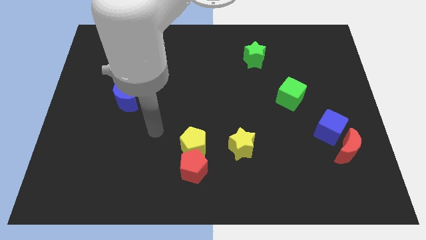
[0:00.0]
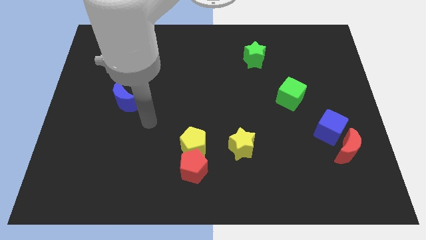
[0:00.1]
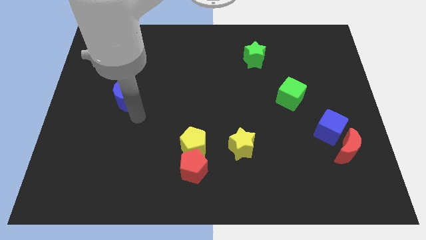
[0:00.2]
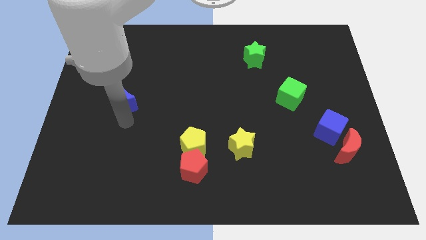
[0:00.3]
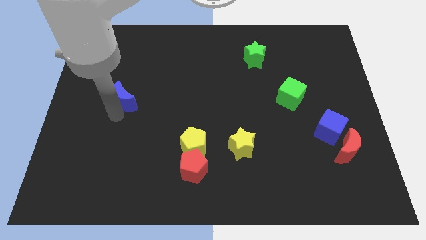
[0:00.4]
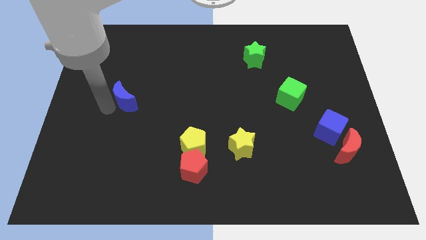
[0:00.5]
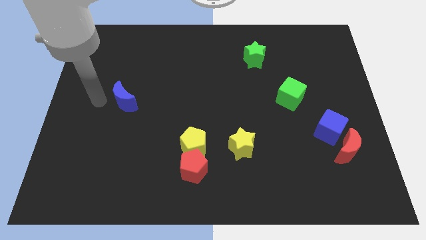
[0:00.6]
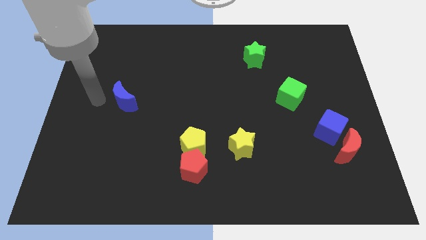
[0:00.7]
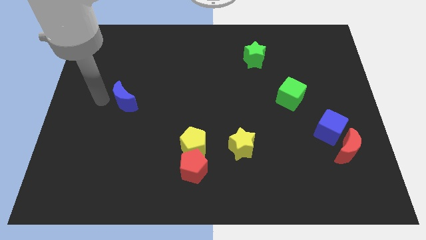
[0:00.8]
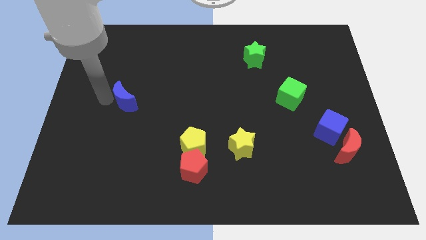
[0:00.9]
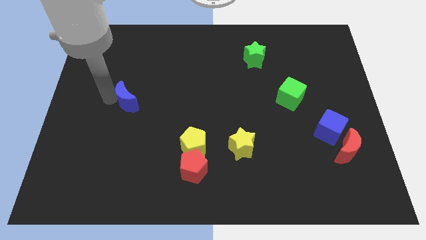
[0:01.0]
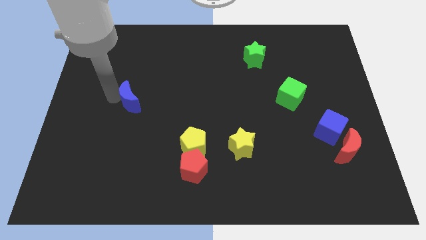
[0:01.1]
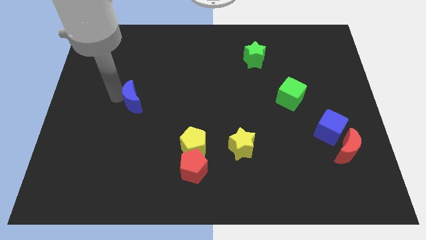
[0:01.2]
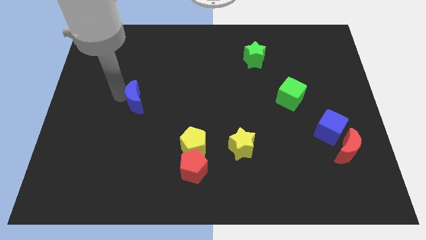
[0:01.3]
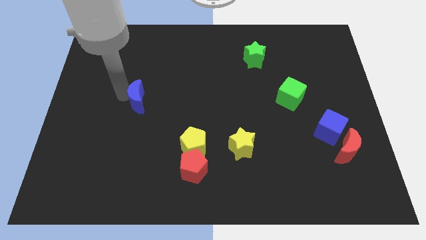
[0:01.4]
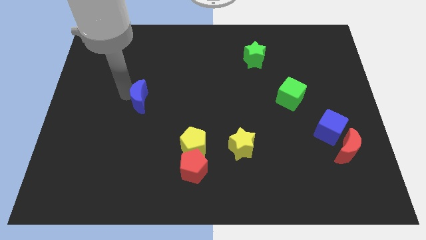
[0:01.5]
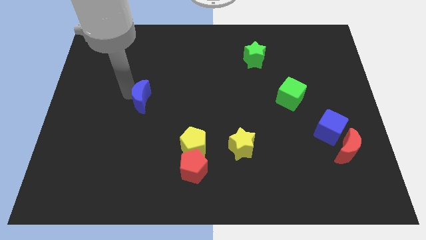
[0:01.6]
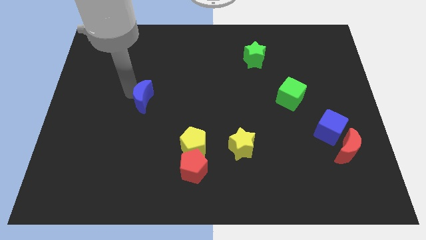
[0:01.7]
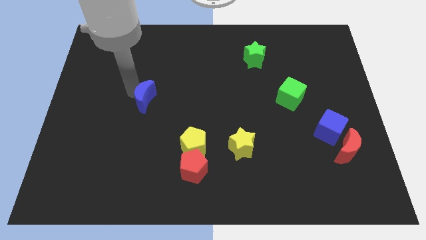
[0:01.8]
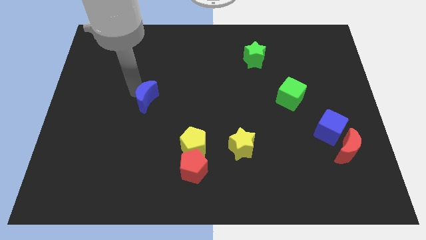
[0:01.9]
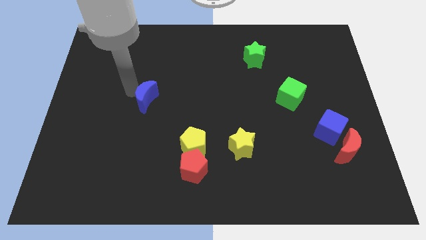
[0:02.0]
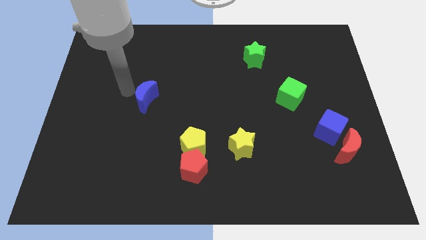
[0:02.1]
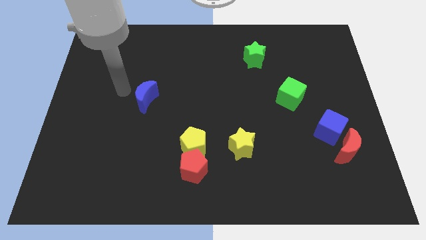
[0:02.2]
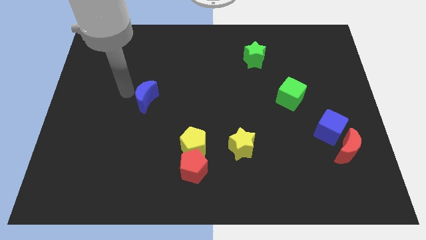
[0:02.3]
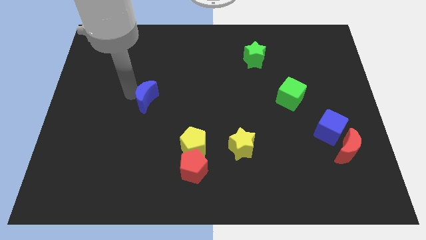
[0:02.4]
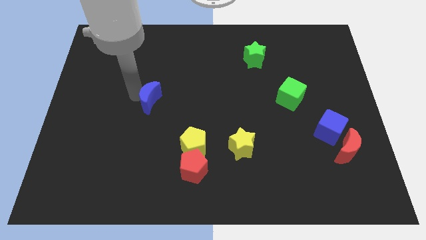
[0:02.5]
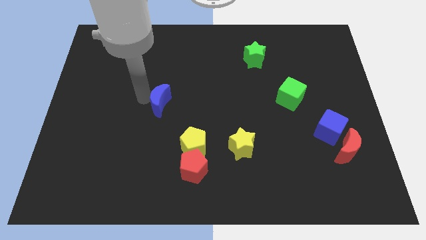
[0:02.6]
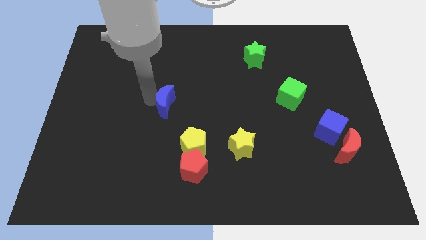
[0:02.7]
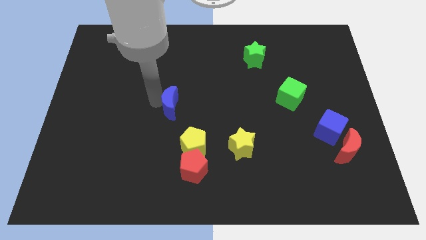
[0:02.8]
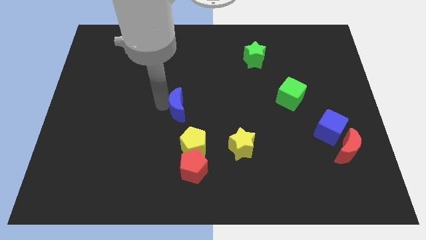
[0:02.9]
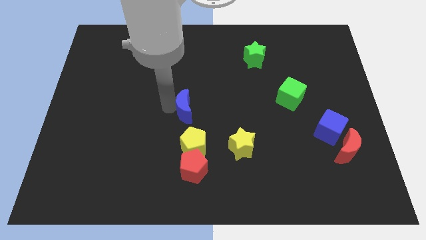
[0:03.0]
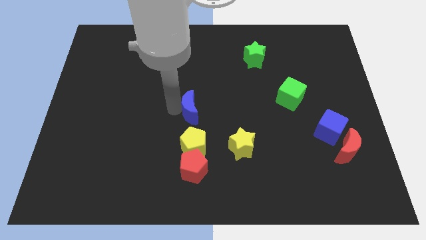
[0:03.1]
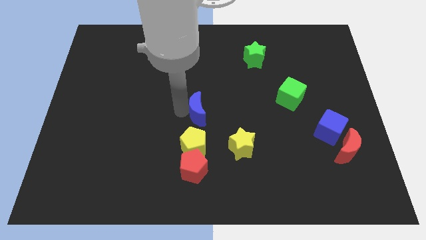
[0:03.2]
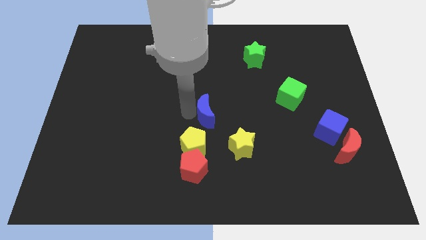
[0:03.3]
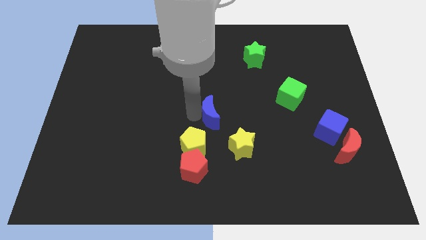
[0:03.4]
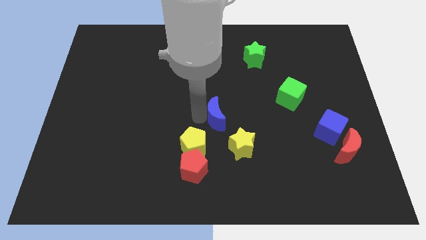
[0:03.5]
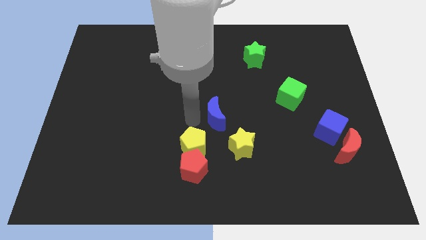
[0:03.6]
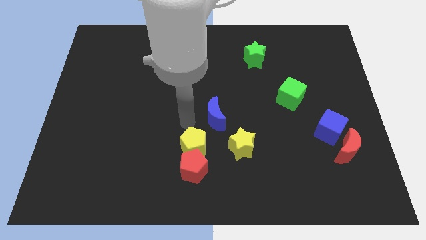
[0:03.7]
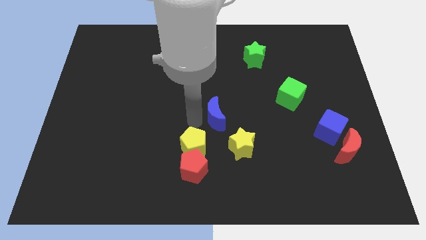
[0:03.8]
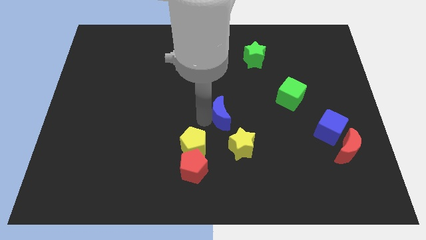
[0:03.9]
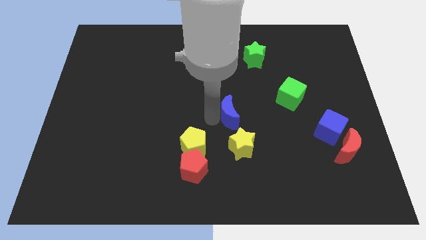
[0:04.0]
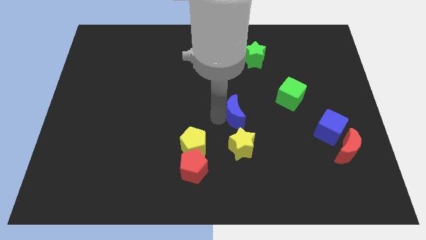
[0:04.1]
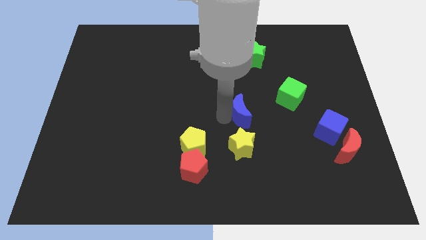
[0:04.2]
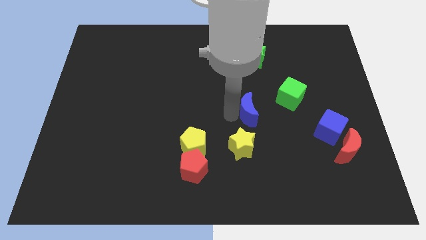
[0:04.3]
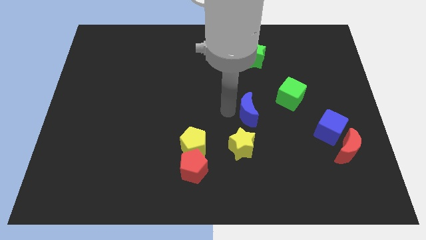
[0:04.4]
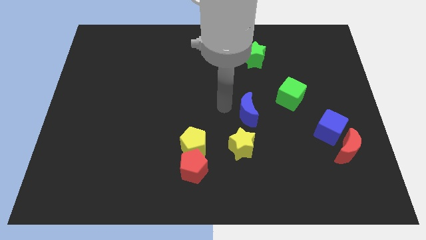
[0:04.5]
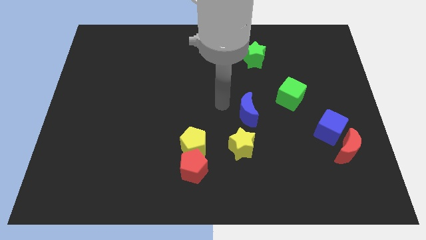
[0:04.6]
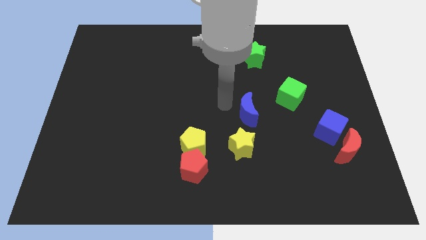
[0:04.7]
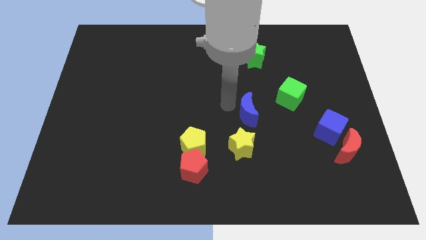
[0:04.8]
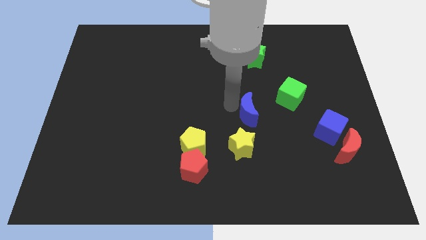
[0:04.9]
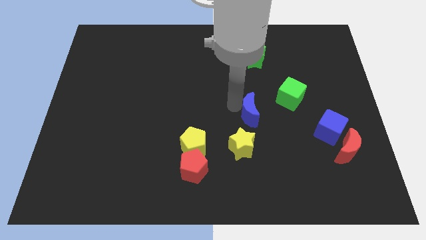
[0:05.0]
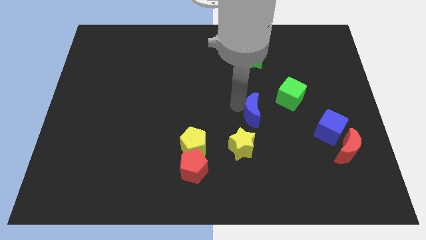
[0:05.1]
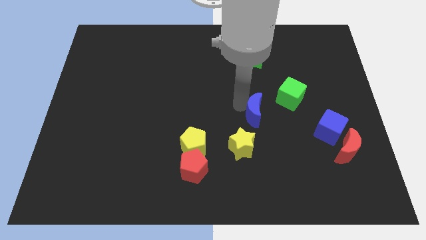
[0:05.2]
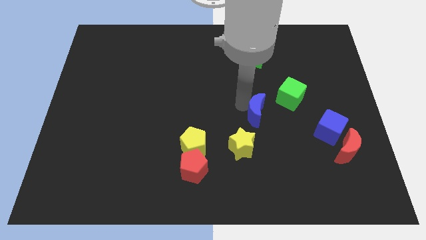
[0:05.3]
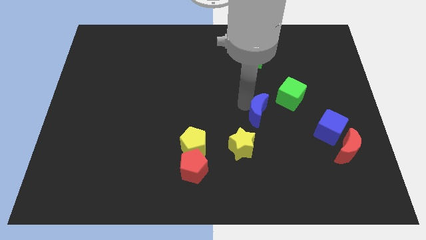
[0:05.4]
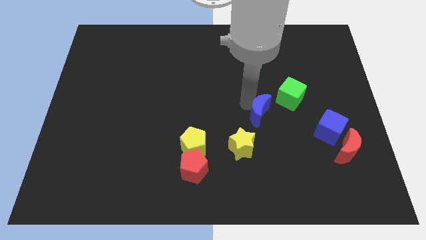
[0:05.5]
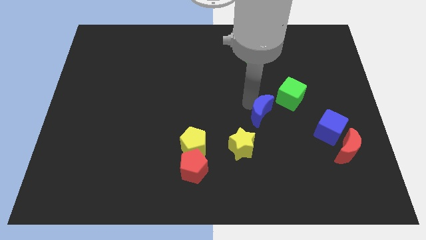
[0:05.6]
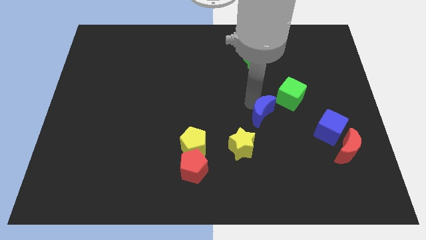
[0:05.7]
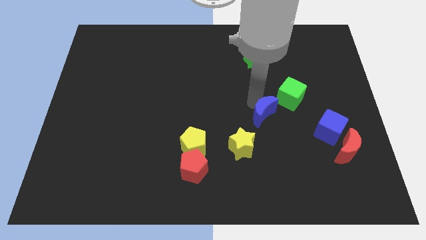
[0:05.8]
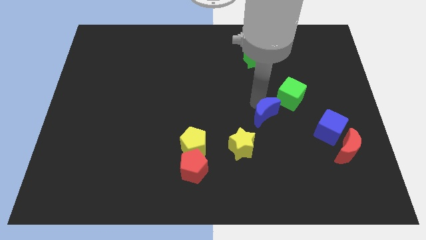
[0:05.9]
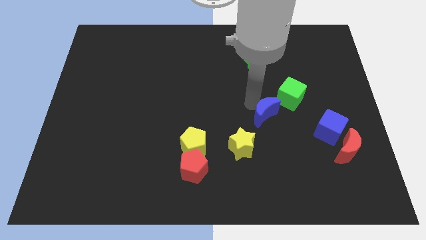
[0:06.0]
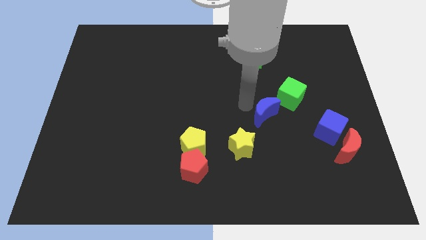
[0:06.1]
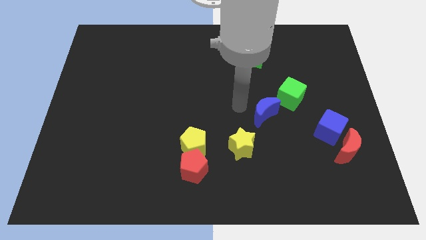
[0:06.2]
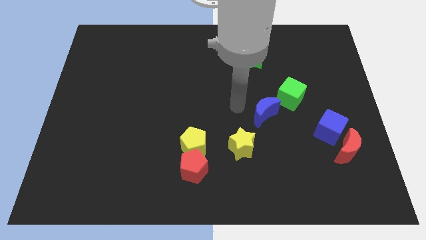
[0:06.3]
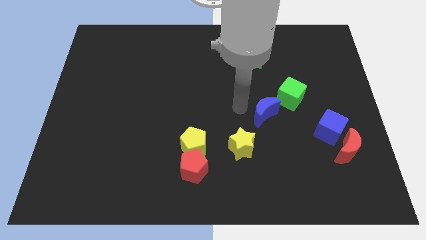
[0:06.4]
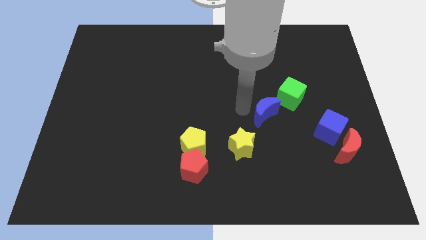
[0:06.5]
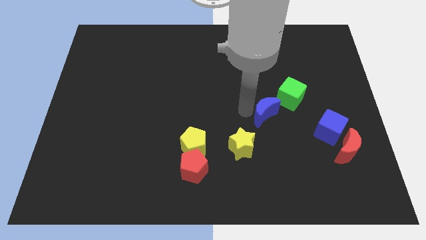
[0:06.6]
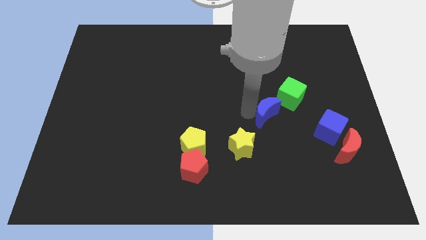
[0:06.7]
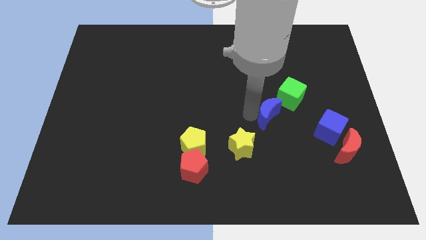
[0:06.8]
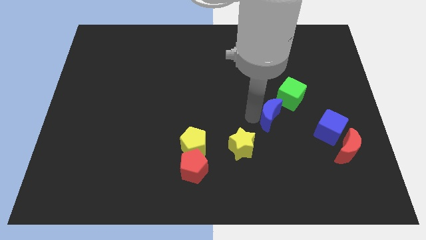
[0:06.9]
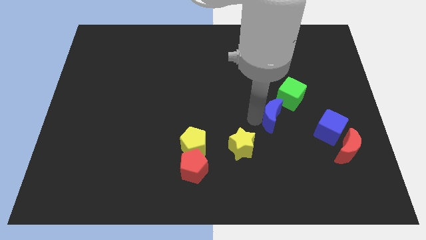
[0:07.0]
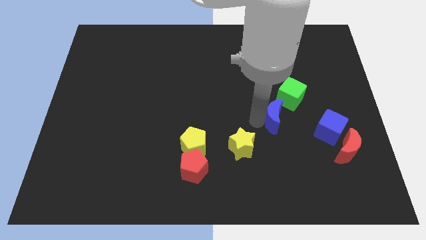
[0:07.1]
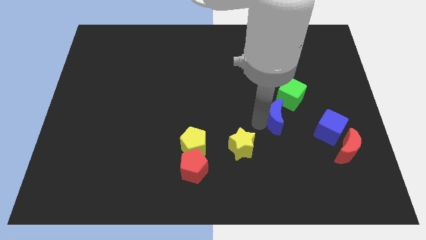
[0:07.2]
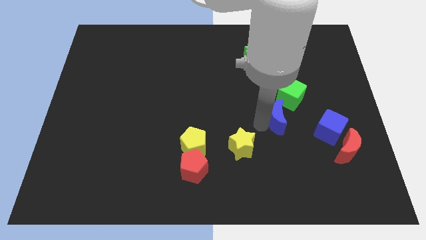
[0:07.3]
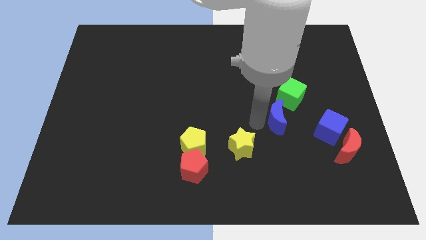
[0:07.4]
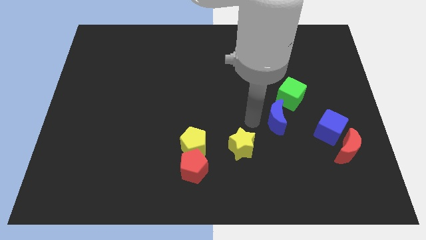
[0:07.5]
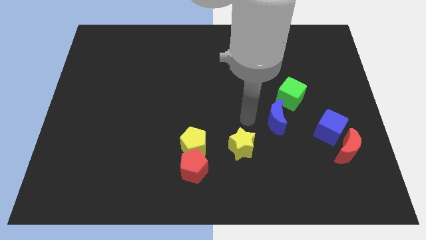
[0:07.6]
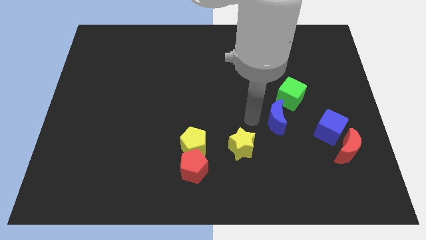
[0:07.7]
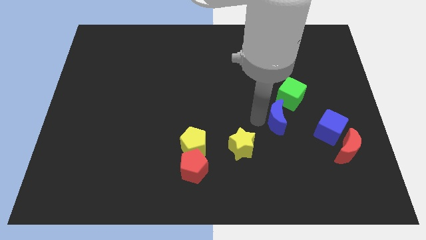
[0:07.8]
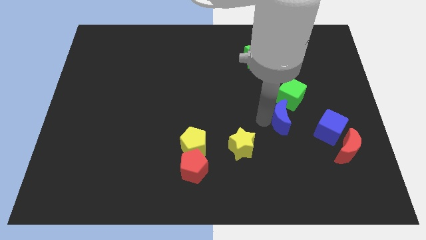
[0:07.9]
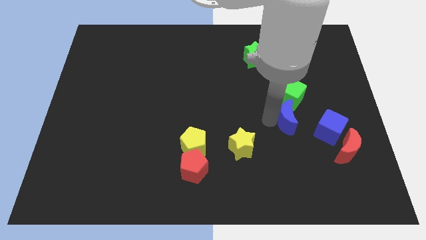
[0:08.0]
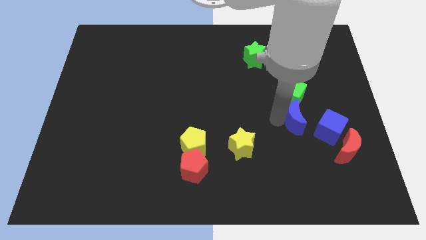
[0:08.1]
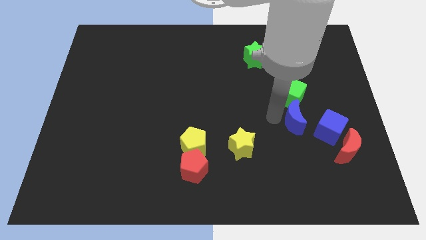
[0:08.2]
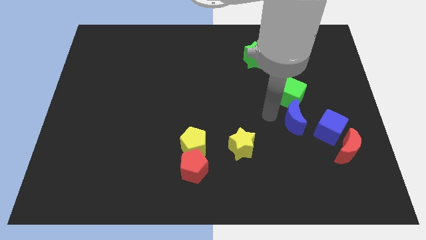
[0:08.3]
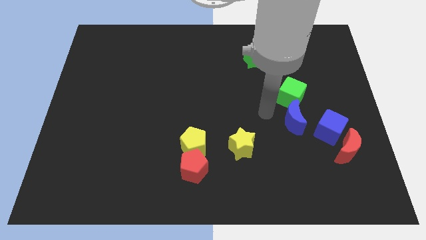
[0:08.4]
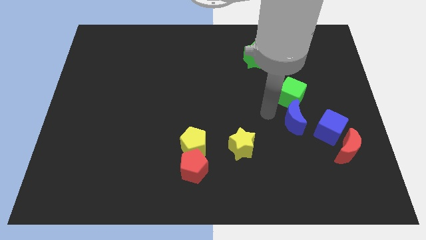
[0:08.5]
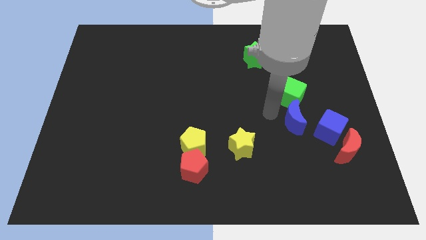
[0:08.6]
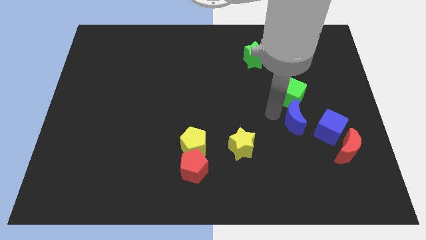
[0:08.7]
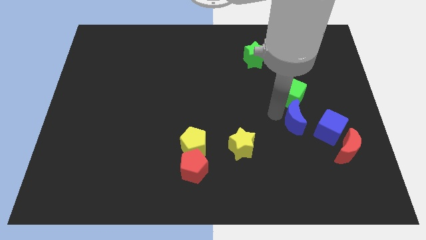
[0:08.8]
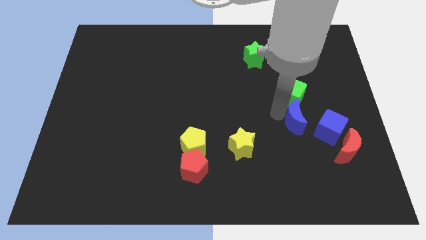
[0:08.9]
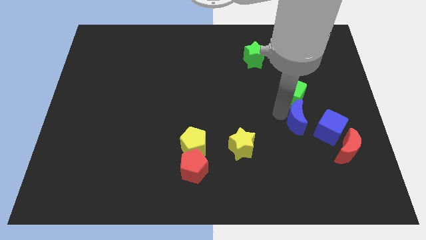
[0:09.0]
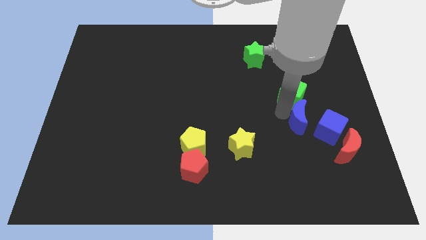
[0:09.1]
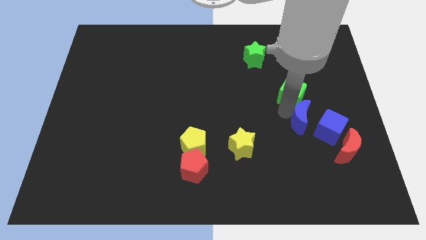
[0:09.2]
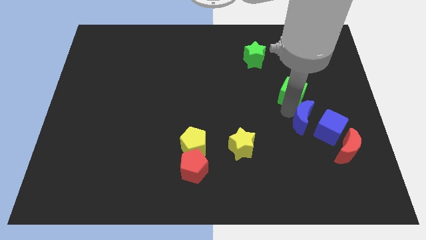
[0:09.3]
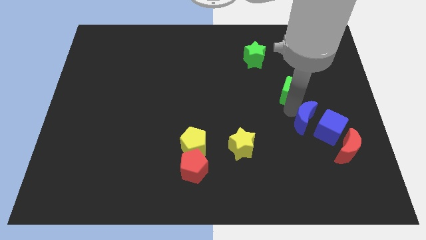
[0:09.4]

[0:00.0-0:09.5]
put the blue moon to the blue cube
